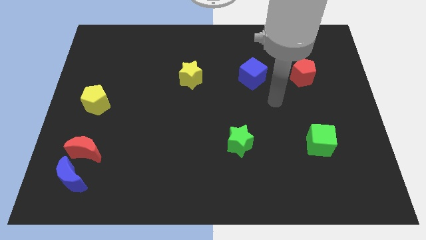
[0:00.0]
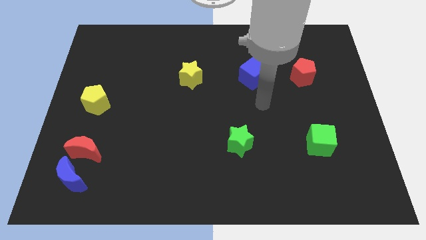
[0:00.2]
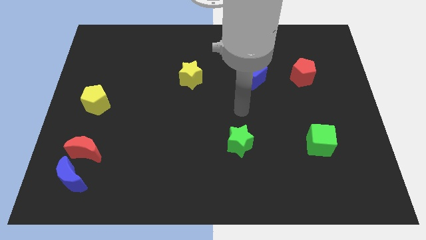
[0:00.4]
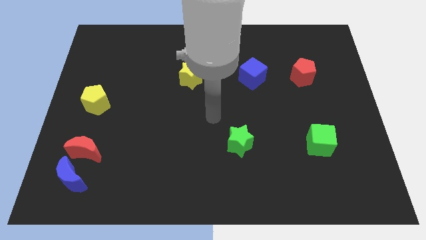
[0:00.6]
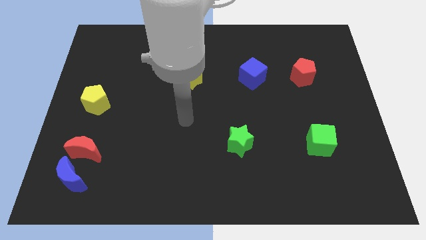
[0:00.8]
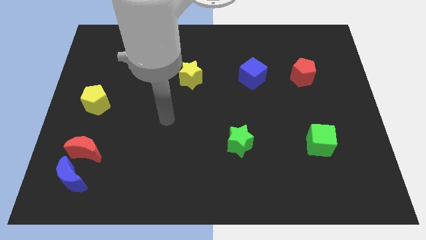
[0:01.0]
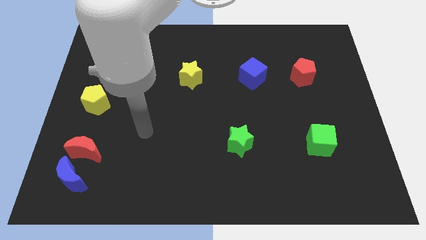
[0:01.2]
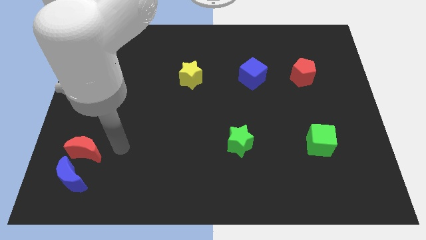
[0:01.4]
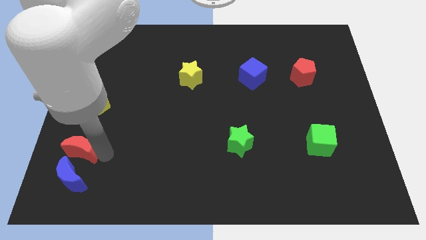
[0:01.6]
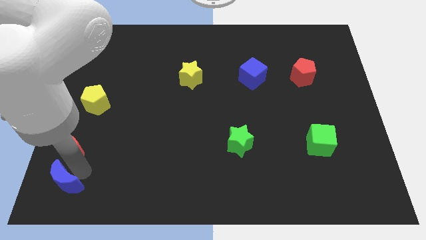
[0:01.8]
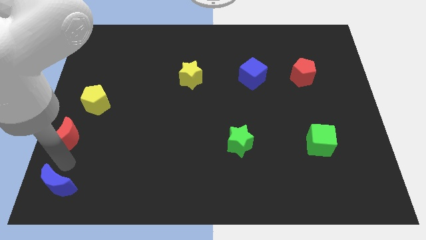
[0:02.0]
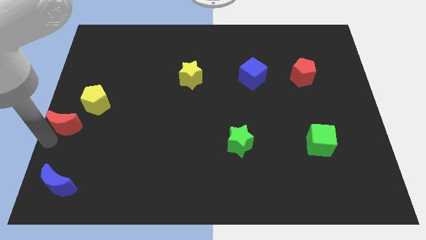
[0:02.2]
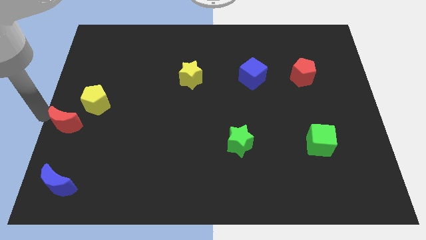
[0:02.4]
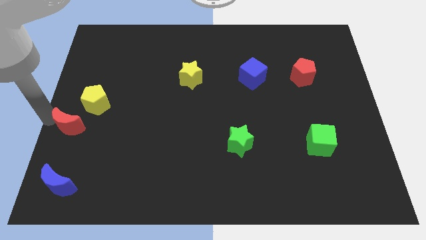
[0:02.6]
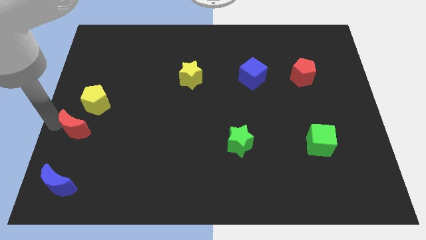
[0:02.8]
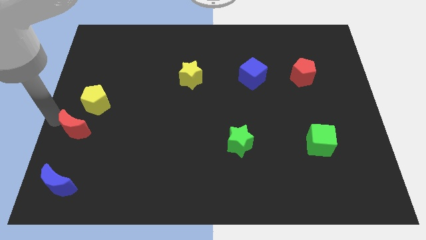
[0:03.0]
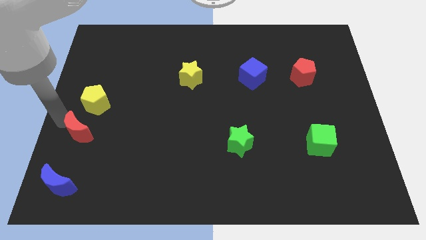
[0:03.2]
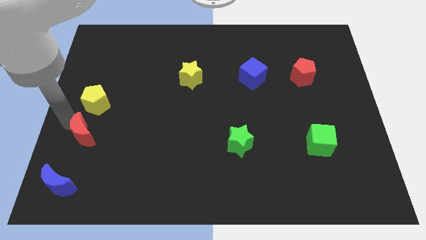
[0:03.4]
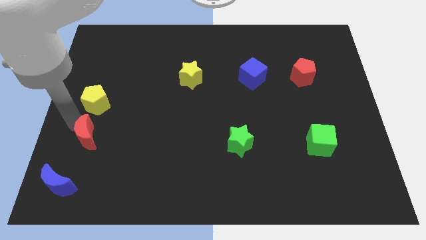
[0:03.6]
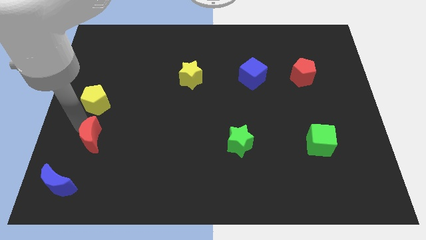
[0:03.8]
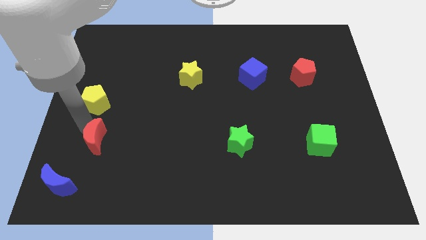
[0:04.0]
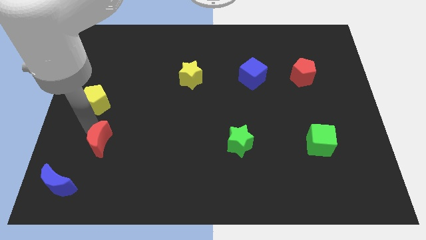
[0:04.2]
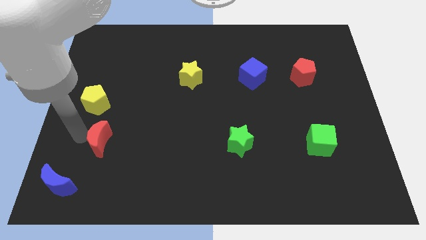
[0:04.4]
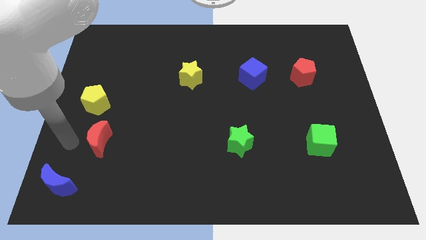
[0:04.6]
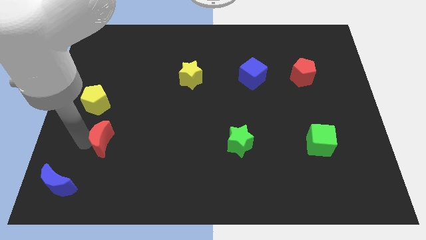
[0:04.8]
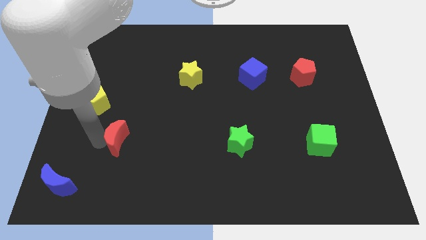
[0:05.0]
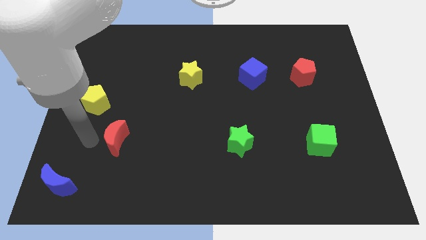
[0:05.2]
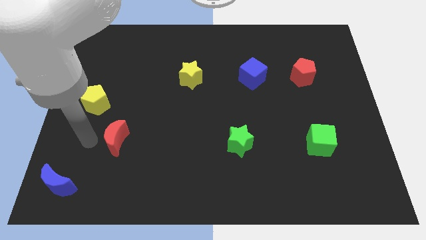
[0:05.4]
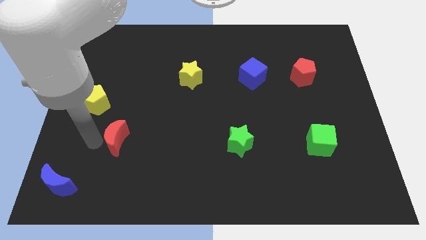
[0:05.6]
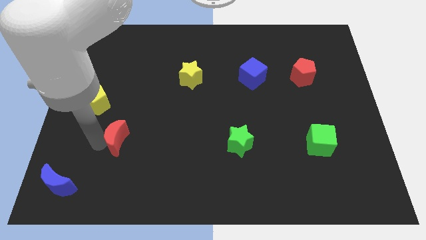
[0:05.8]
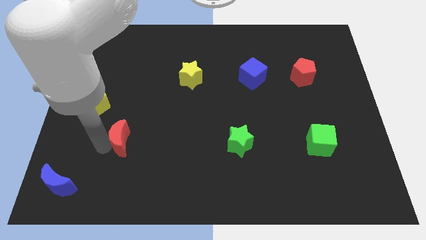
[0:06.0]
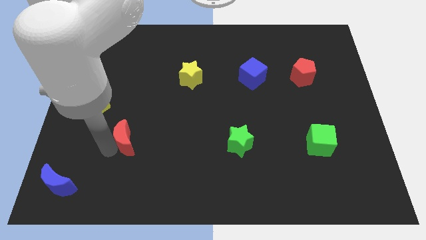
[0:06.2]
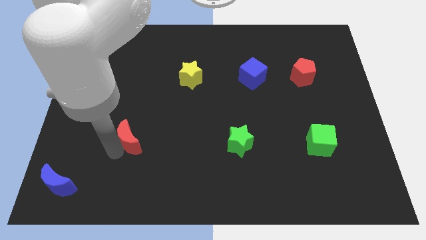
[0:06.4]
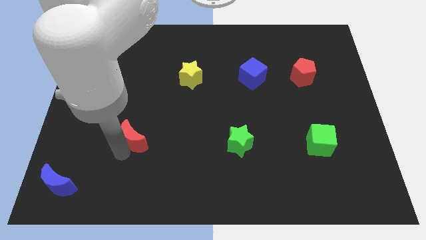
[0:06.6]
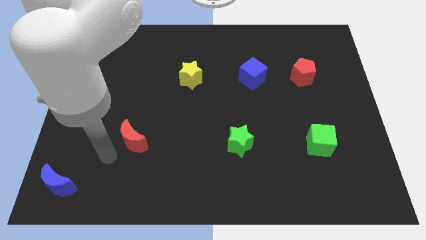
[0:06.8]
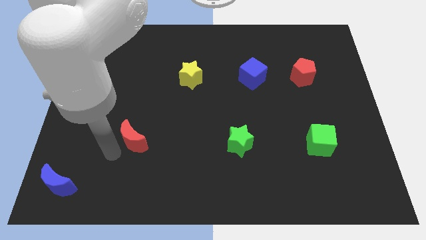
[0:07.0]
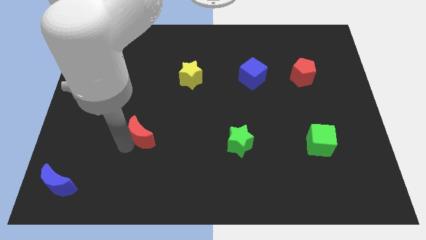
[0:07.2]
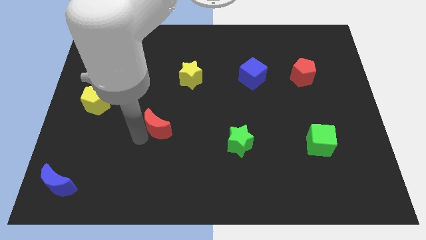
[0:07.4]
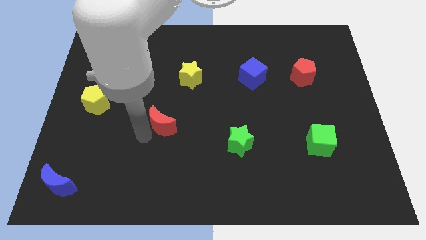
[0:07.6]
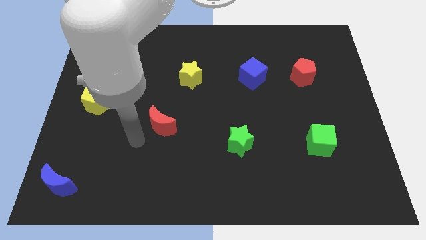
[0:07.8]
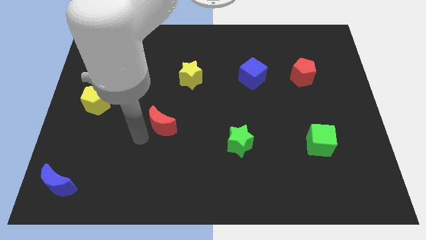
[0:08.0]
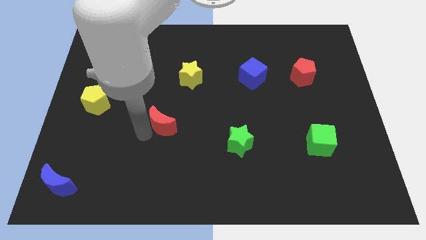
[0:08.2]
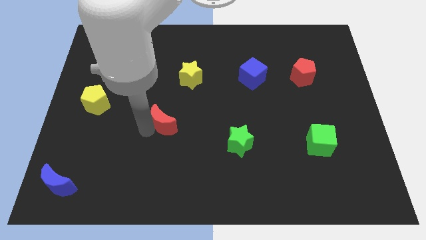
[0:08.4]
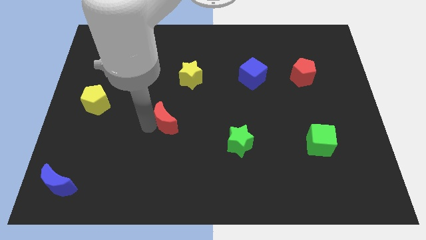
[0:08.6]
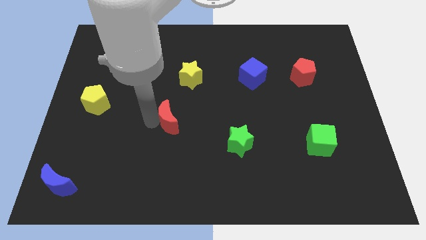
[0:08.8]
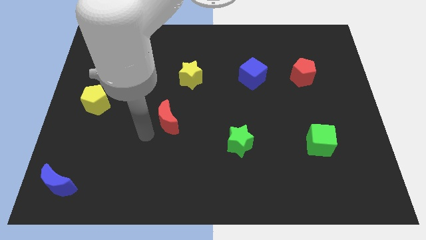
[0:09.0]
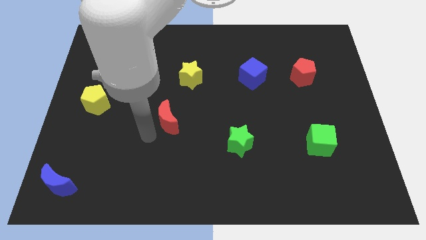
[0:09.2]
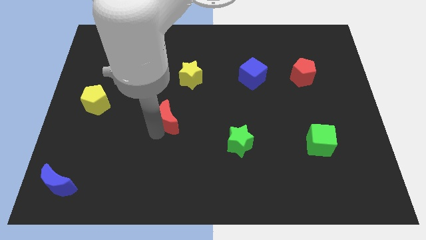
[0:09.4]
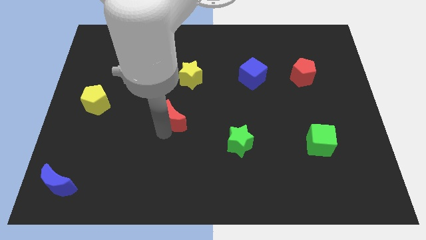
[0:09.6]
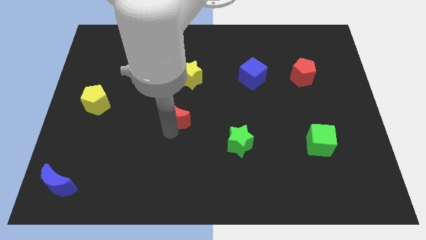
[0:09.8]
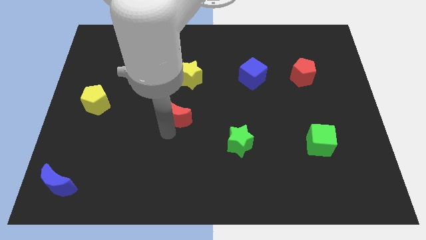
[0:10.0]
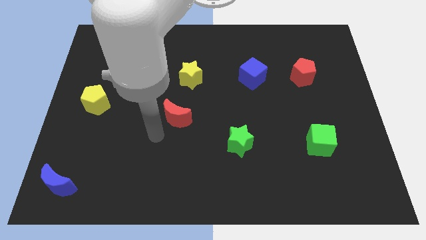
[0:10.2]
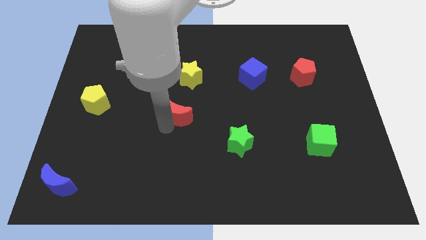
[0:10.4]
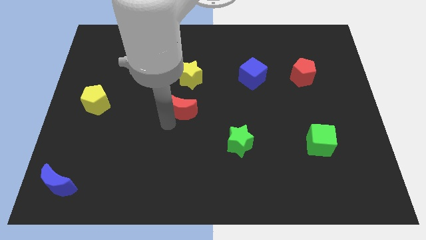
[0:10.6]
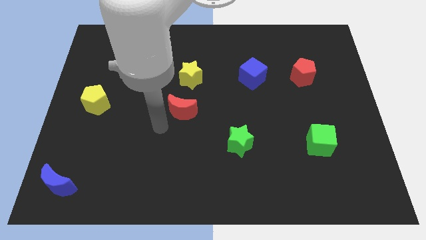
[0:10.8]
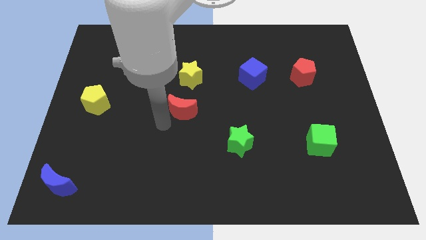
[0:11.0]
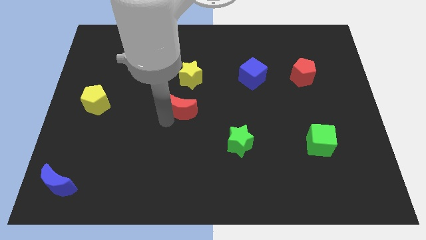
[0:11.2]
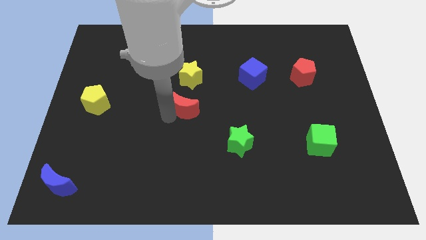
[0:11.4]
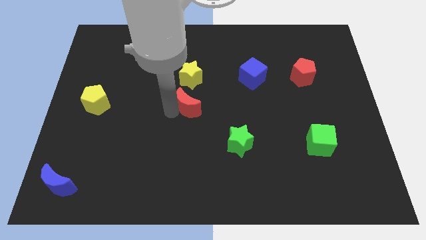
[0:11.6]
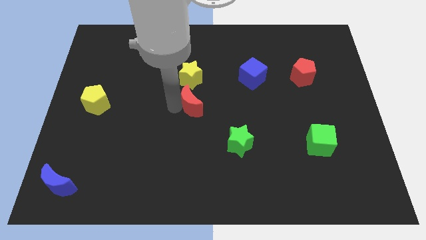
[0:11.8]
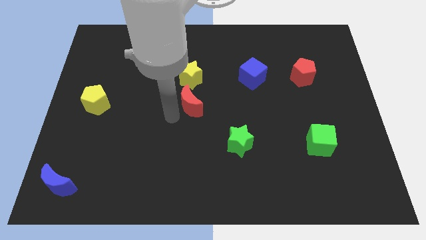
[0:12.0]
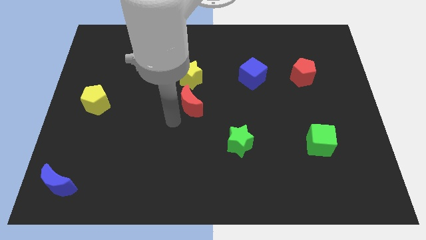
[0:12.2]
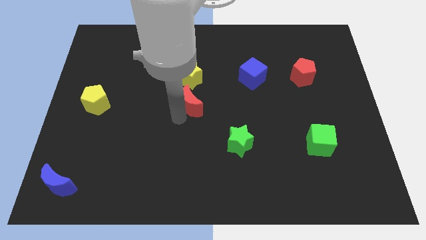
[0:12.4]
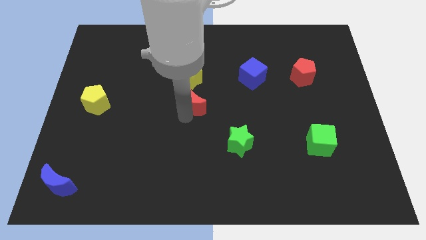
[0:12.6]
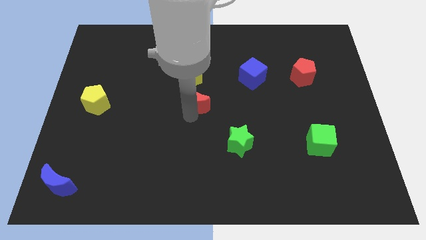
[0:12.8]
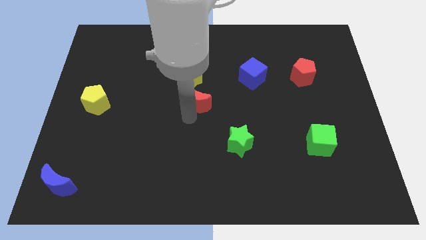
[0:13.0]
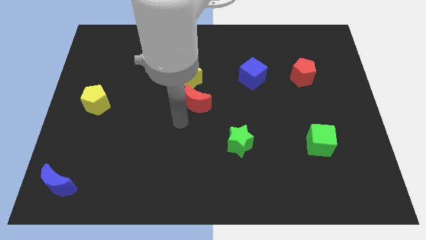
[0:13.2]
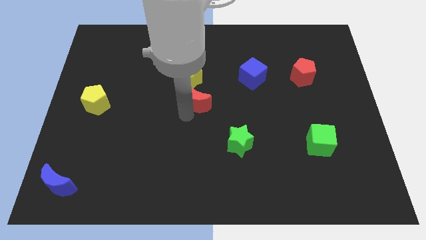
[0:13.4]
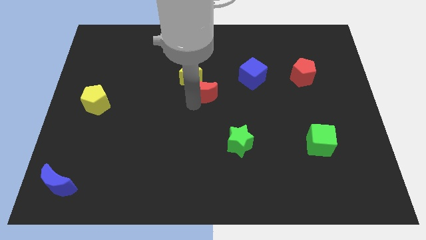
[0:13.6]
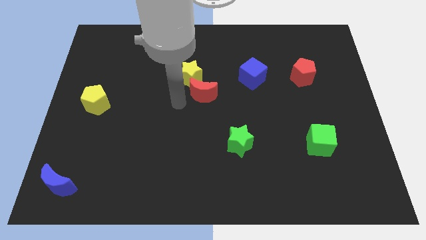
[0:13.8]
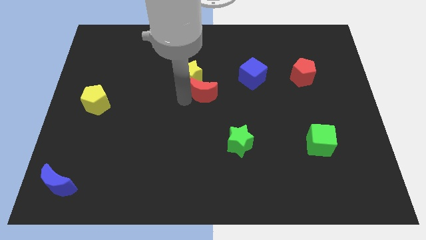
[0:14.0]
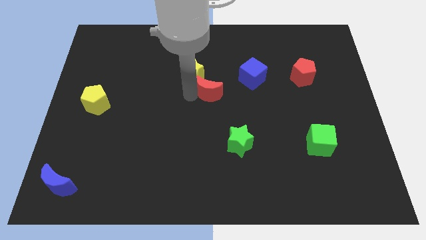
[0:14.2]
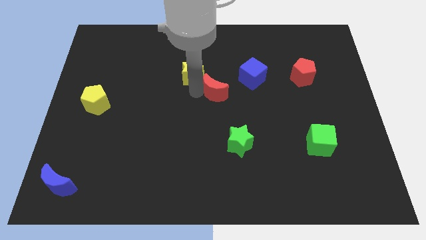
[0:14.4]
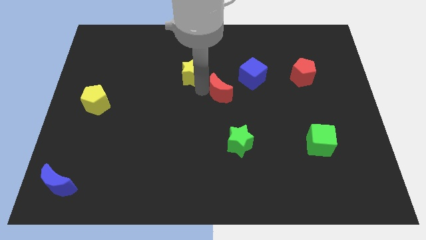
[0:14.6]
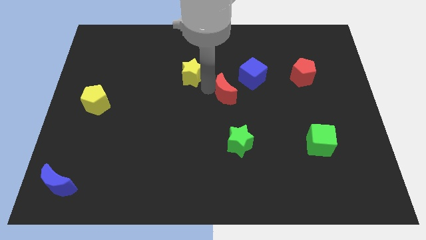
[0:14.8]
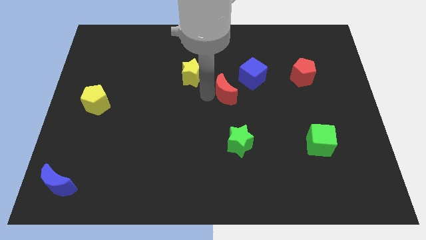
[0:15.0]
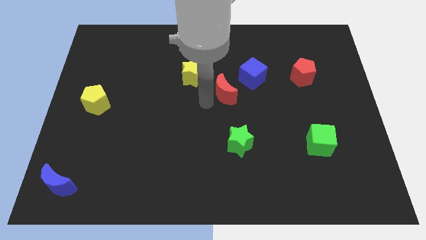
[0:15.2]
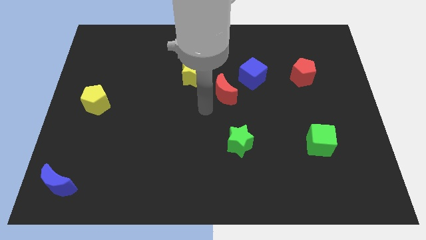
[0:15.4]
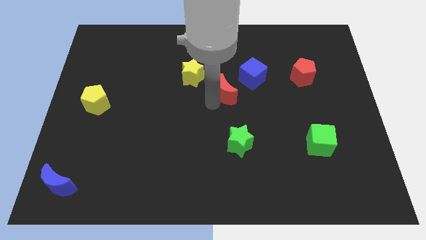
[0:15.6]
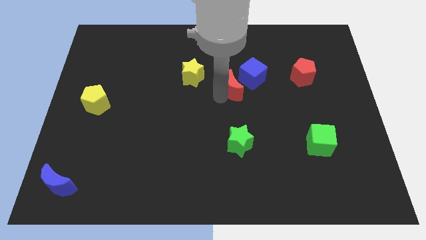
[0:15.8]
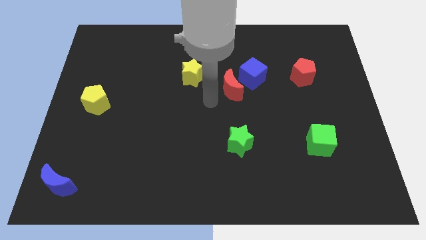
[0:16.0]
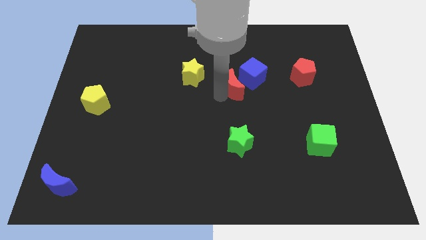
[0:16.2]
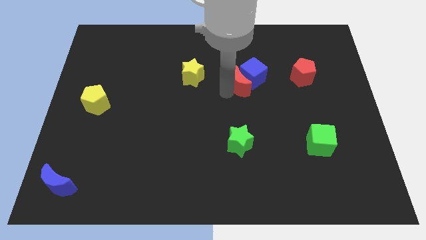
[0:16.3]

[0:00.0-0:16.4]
slide the red moon towards the blue cube
